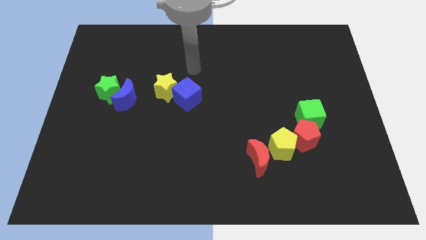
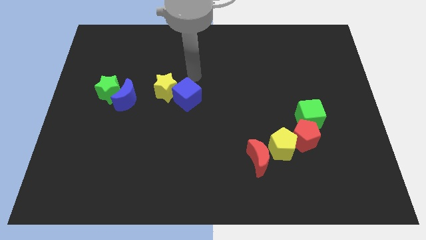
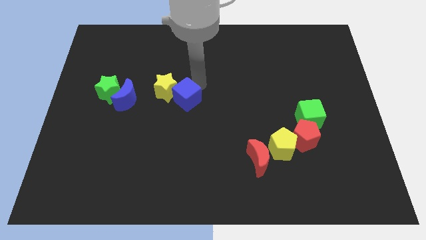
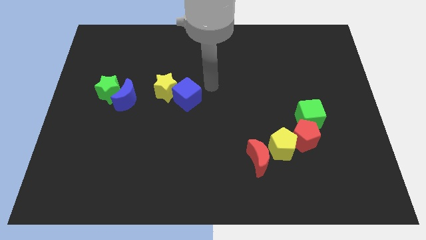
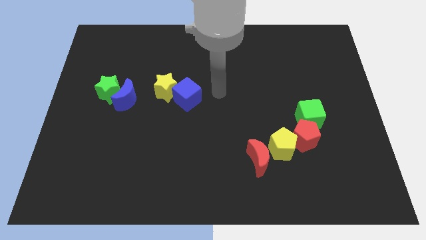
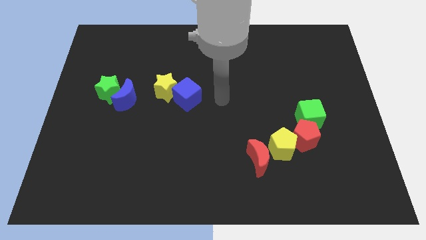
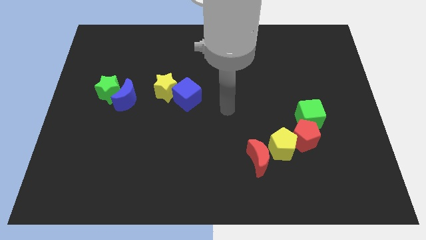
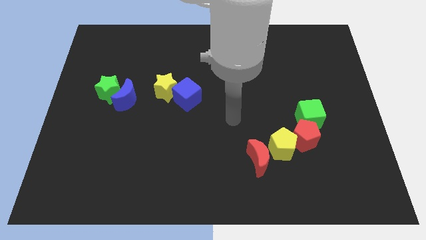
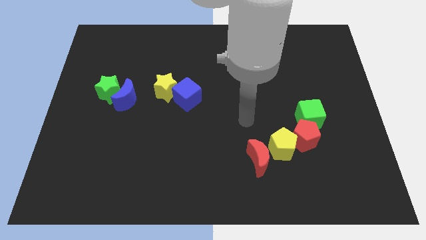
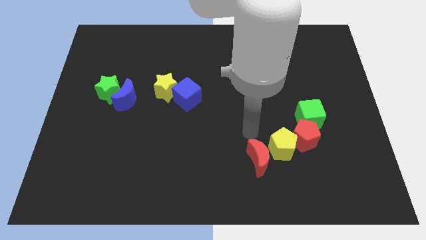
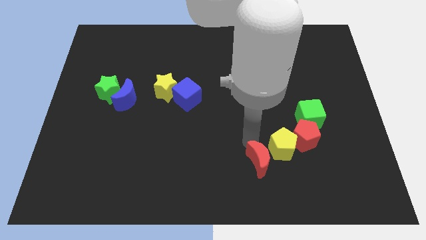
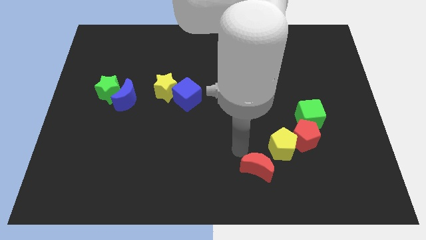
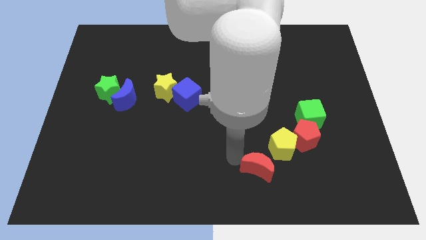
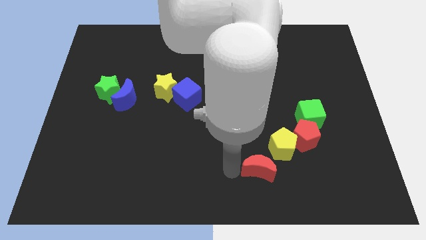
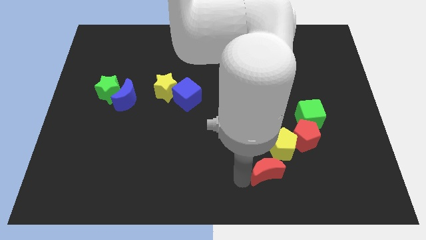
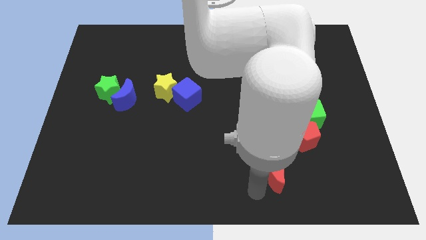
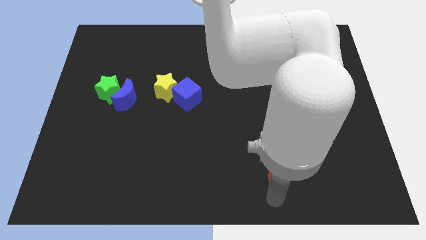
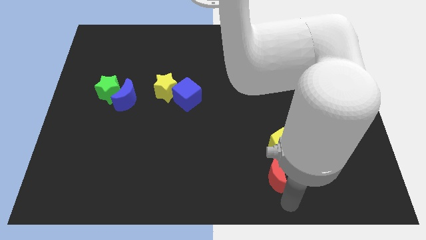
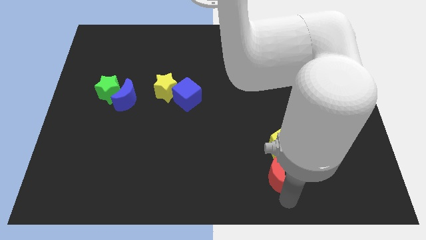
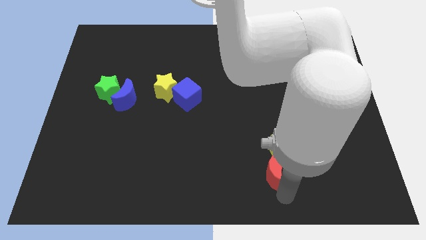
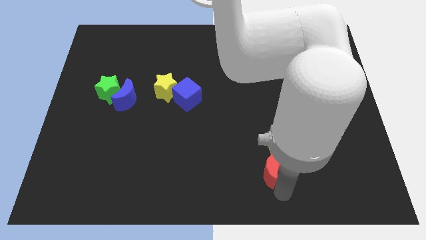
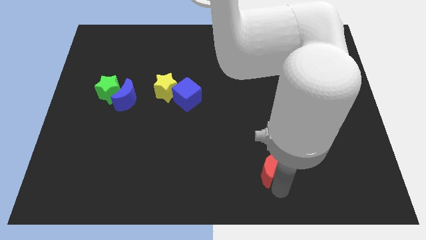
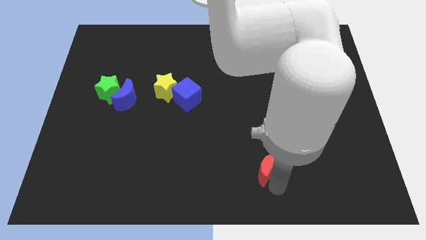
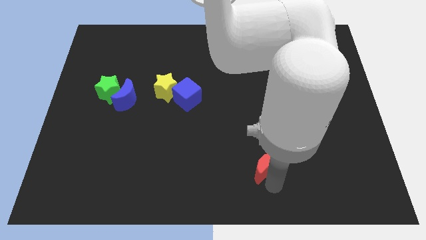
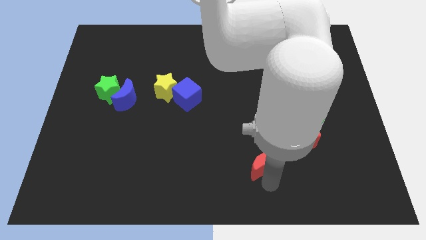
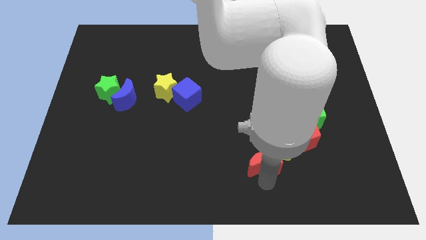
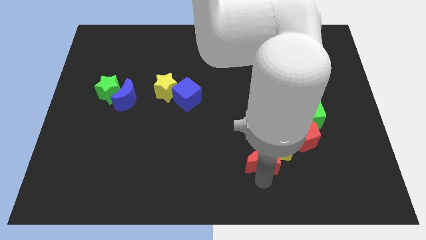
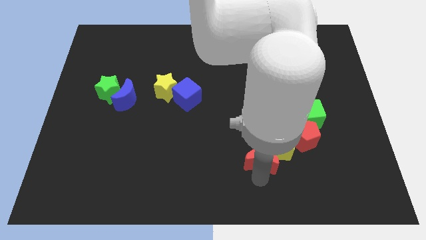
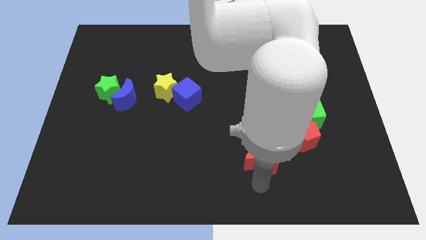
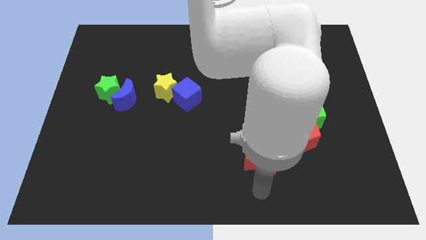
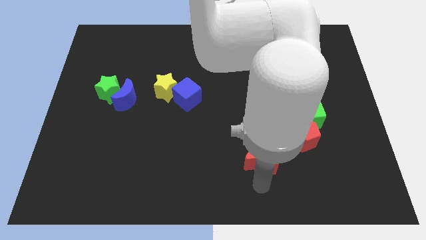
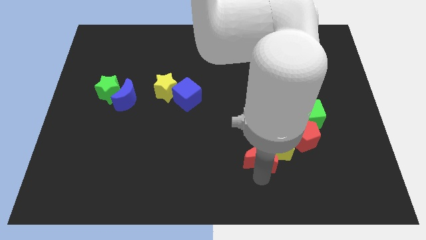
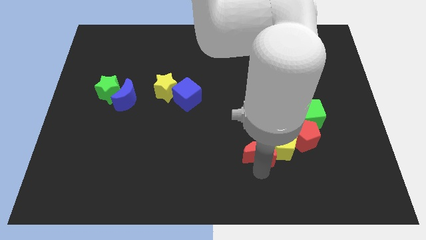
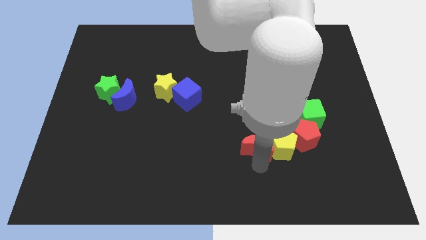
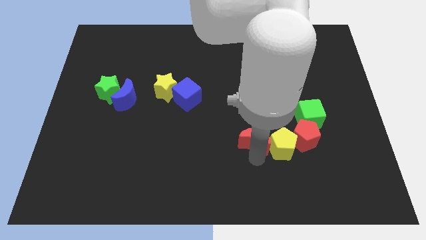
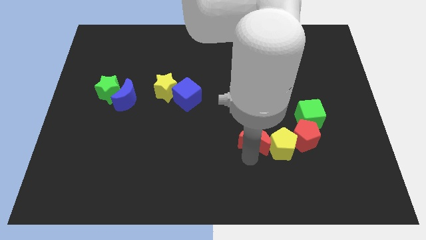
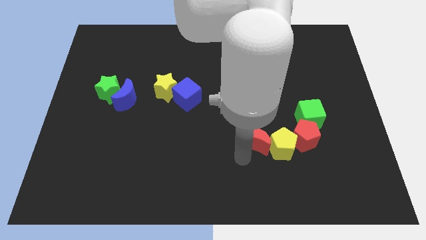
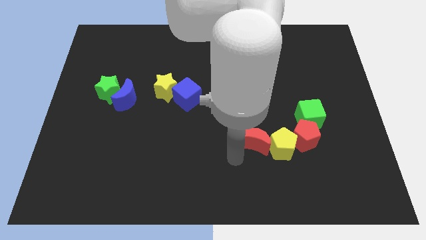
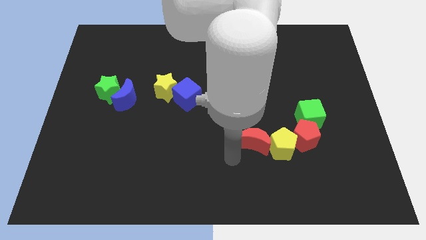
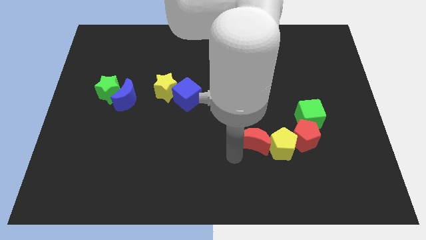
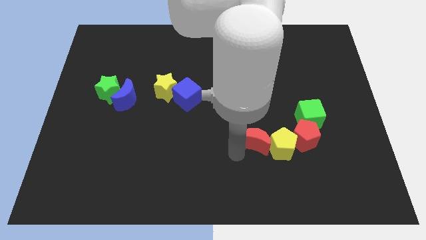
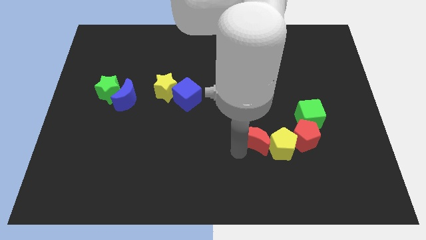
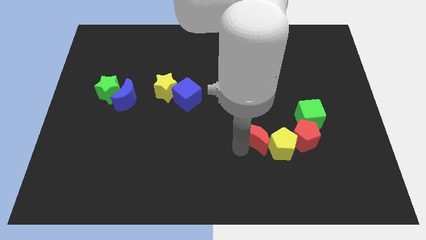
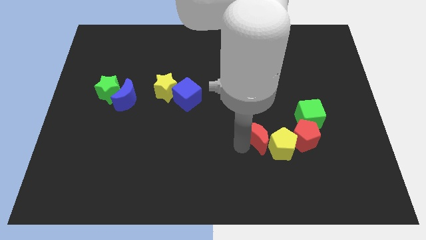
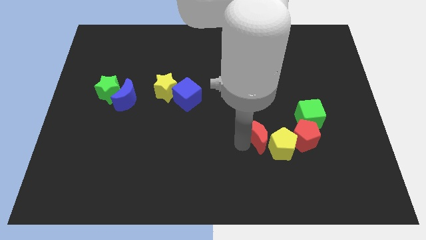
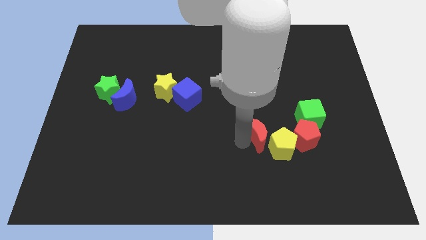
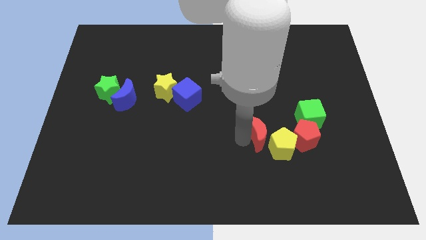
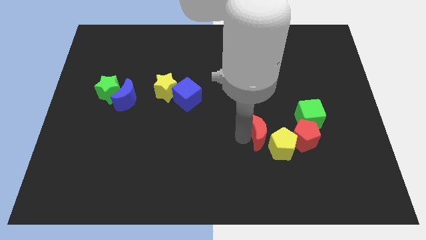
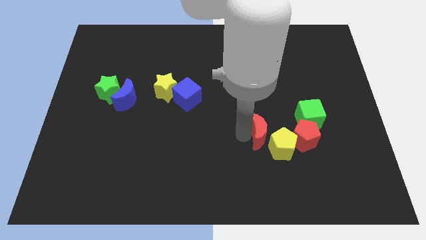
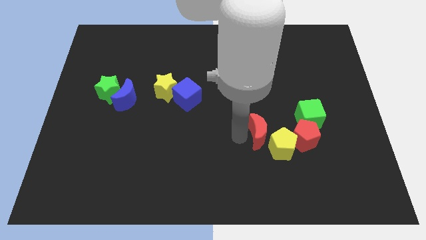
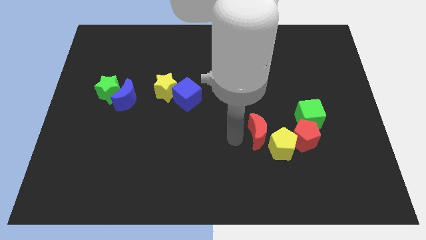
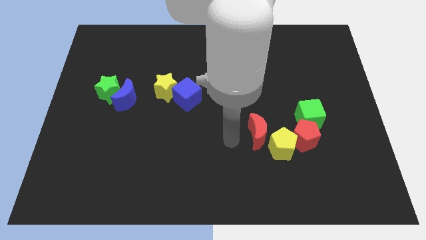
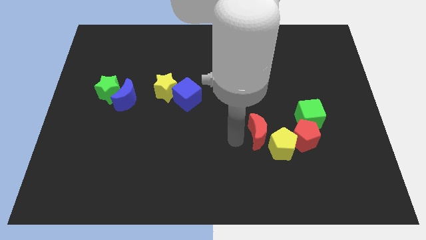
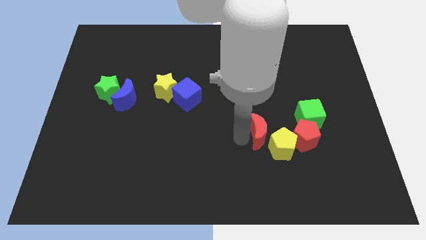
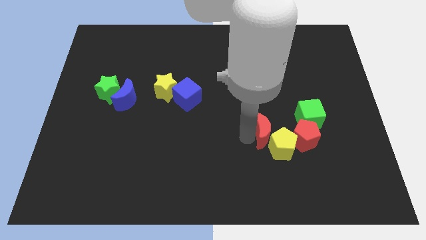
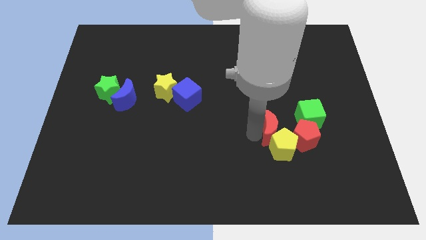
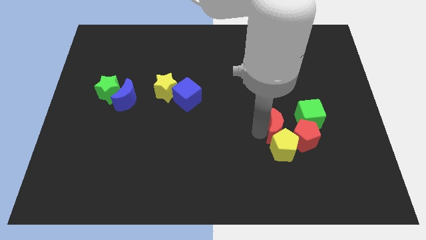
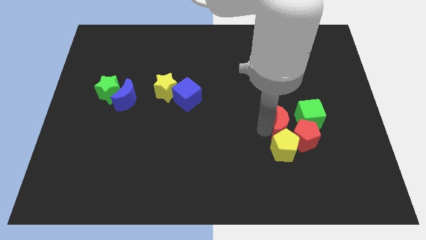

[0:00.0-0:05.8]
push the red moon next to the red pentagon

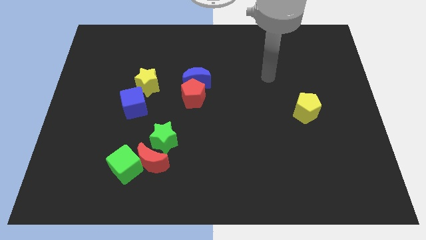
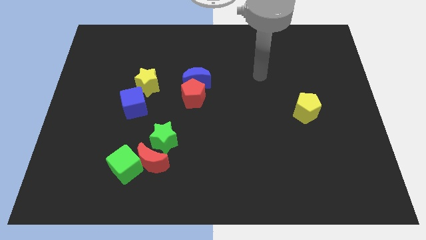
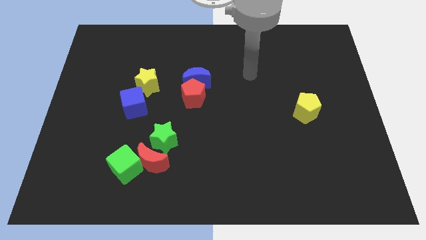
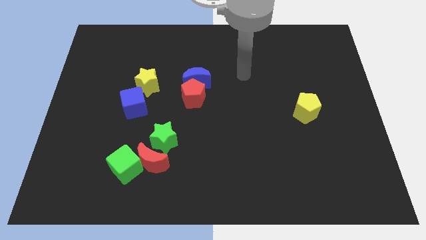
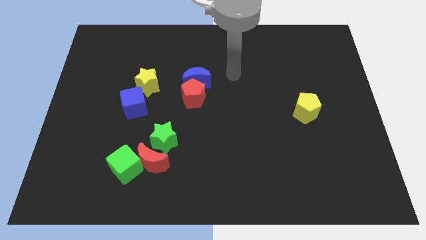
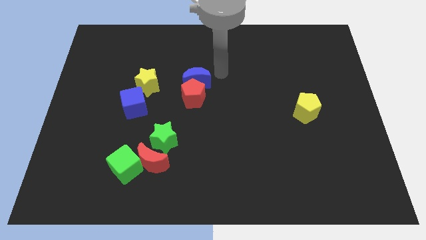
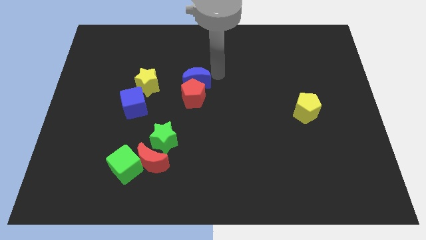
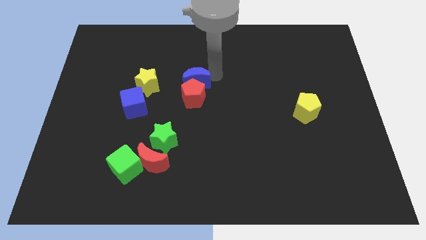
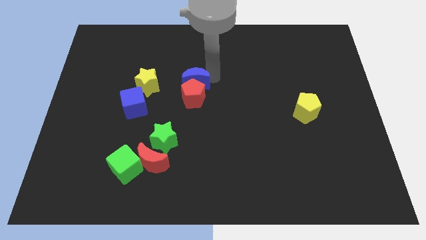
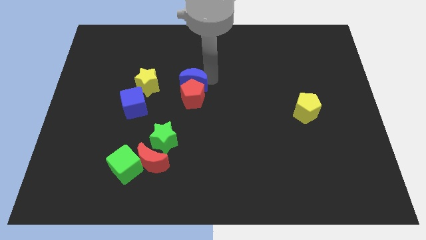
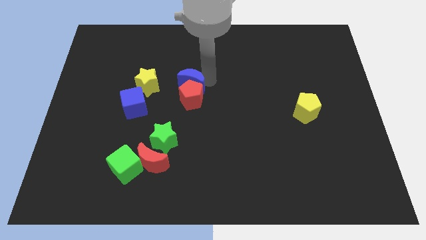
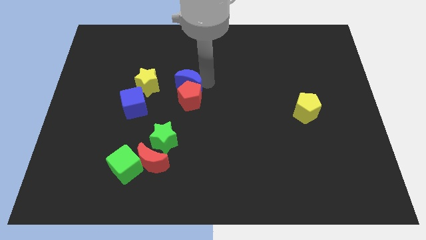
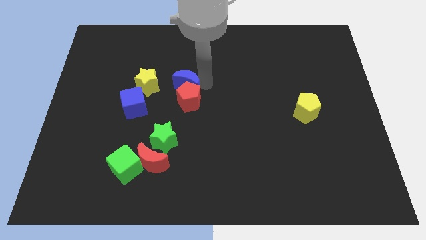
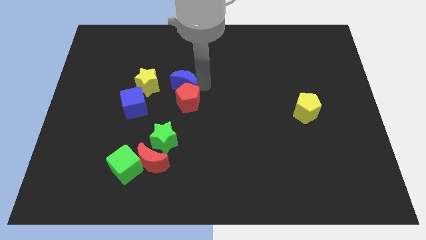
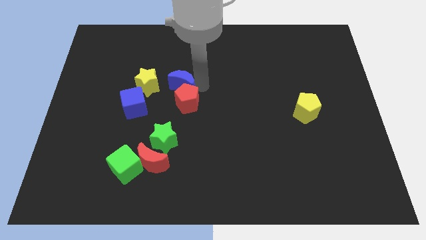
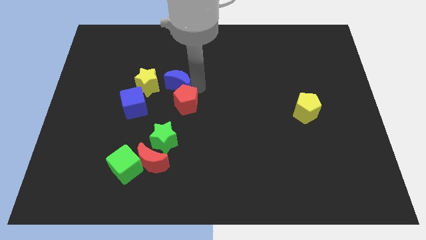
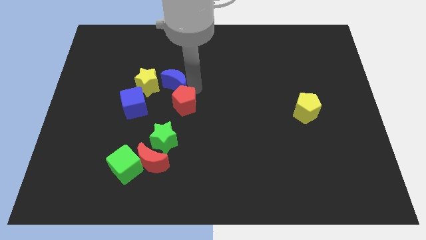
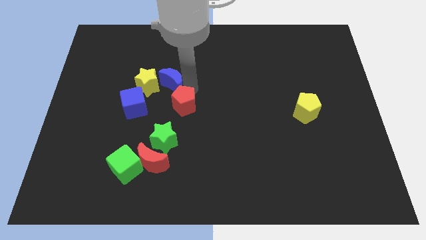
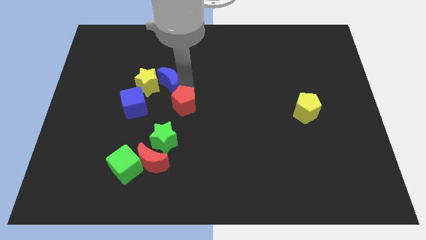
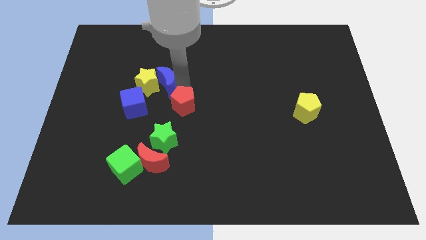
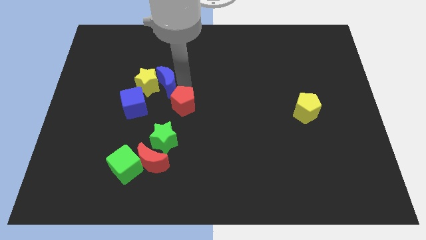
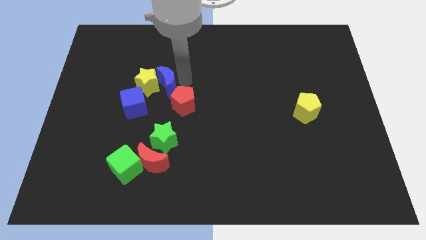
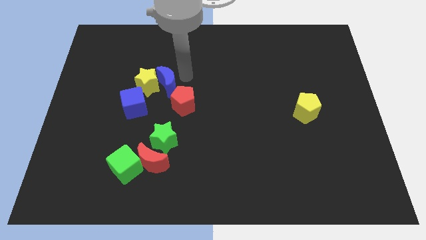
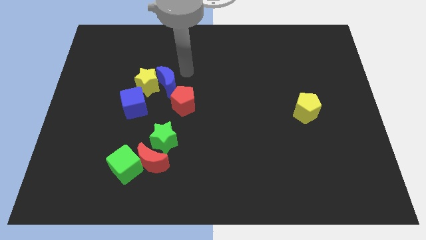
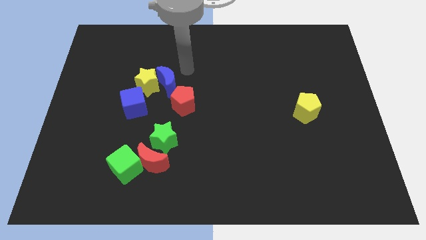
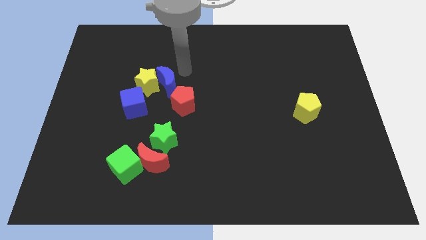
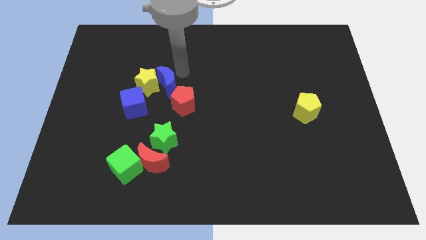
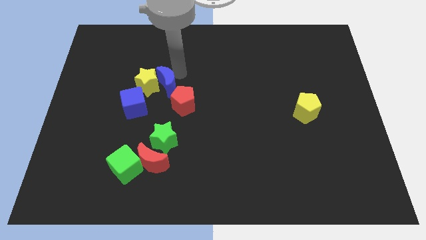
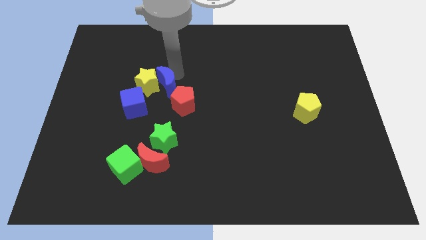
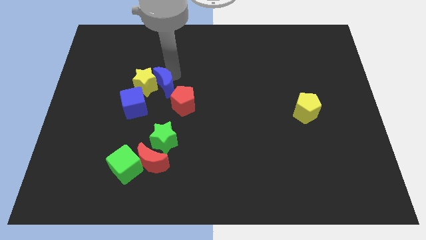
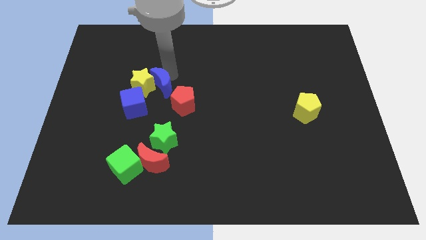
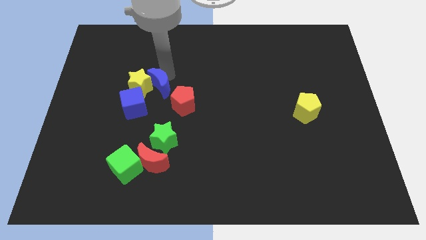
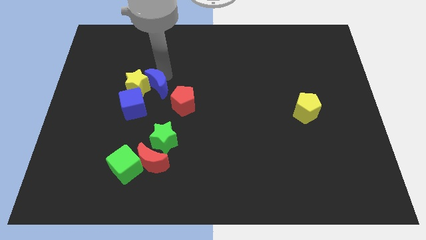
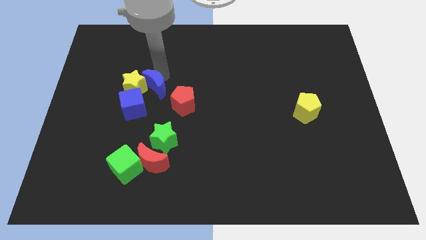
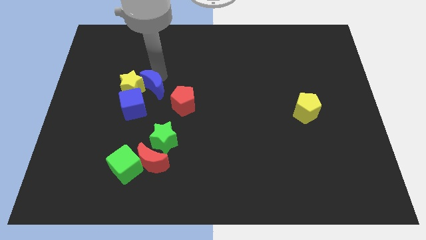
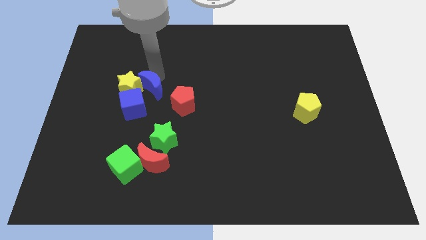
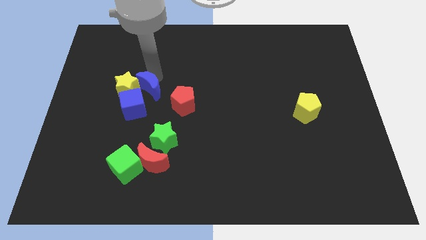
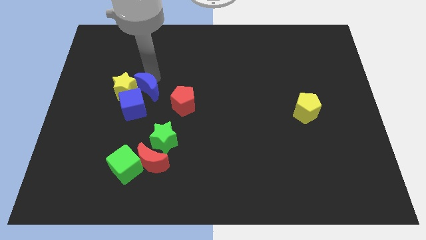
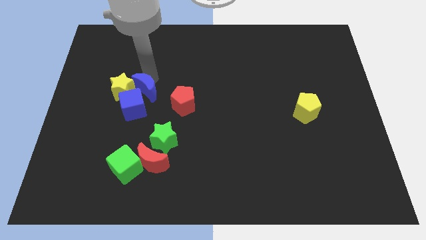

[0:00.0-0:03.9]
move the blue moon to the blue cube
